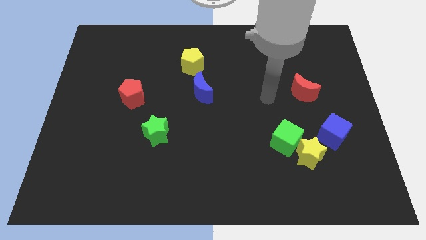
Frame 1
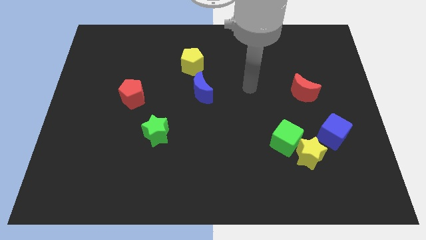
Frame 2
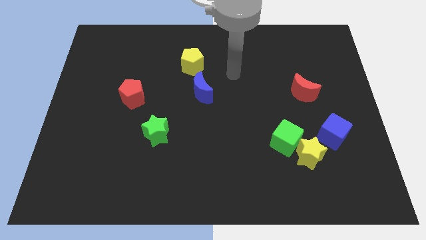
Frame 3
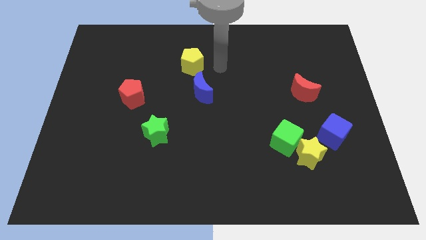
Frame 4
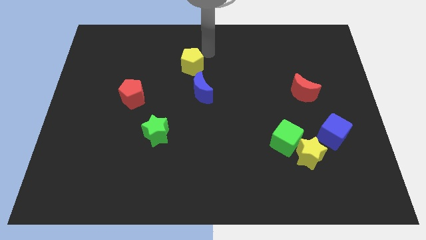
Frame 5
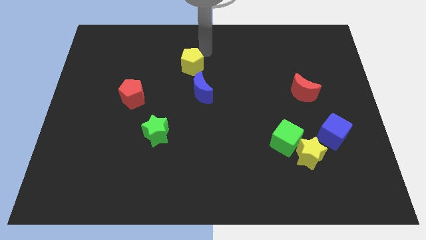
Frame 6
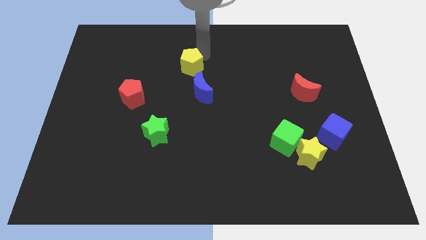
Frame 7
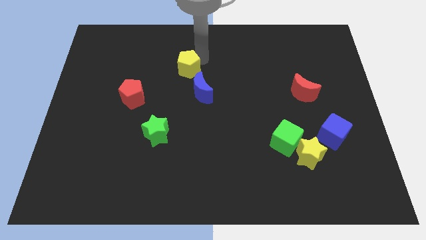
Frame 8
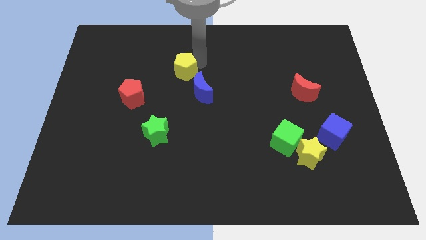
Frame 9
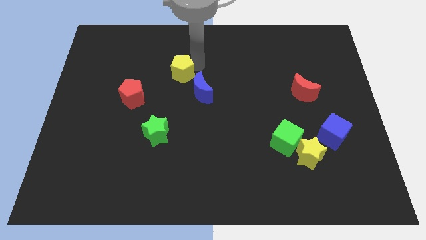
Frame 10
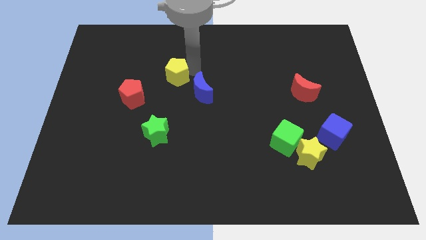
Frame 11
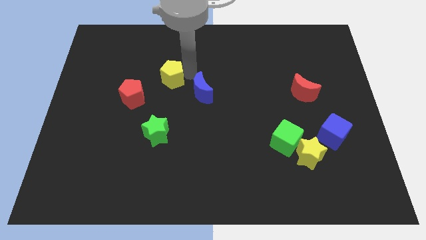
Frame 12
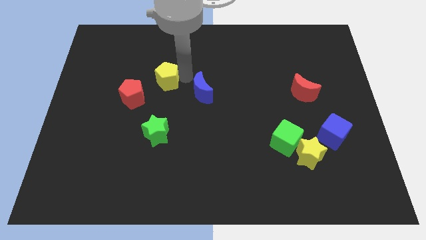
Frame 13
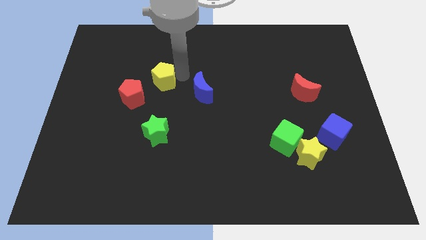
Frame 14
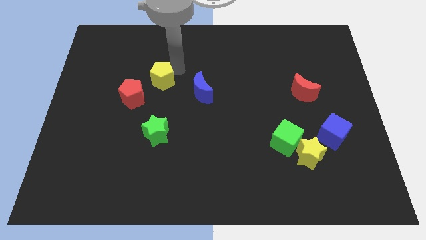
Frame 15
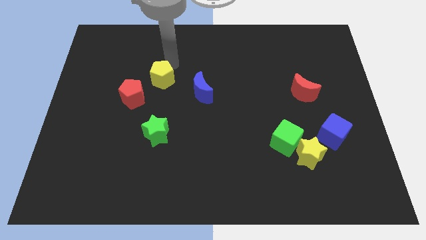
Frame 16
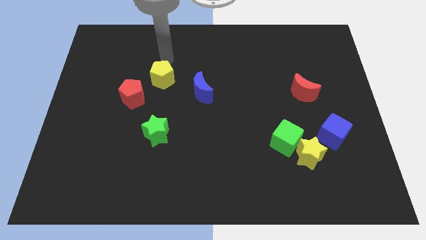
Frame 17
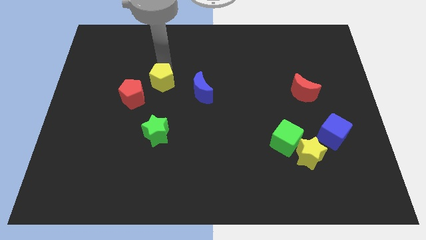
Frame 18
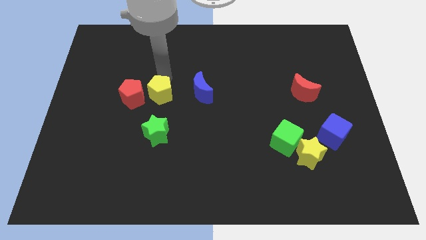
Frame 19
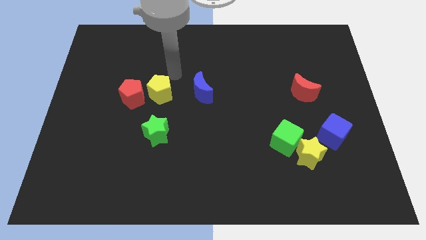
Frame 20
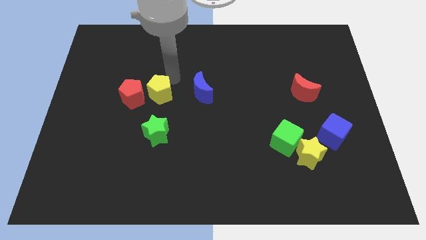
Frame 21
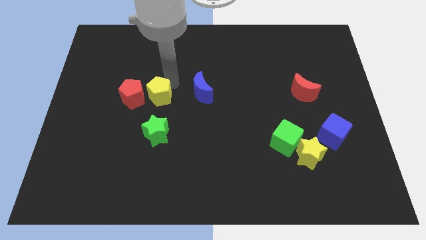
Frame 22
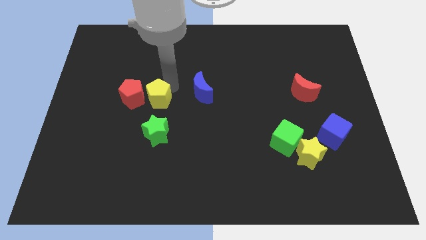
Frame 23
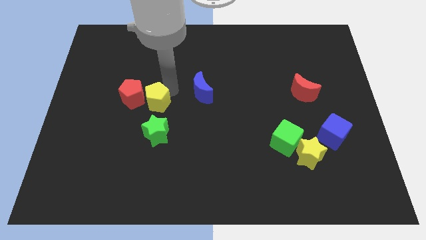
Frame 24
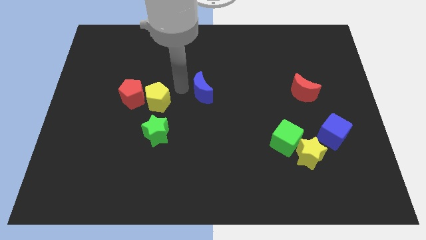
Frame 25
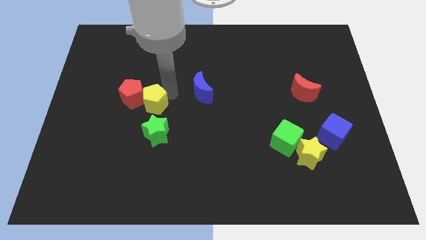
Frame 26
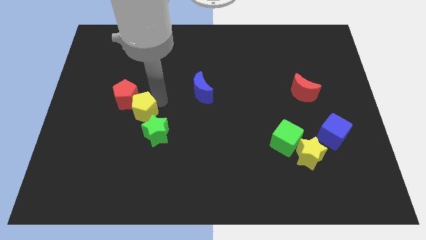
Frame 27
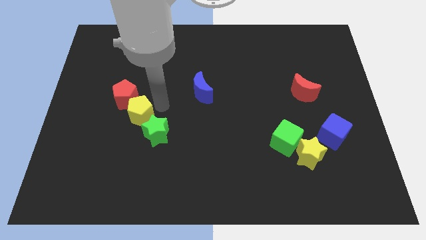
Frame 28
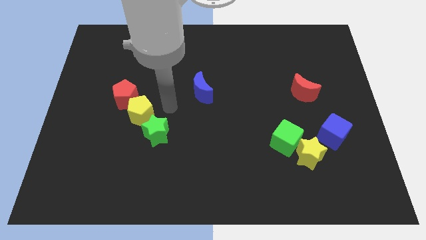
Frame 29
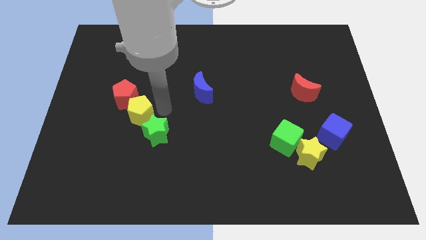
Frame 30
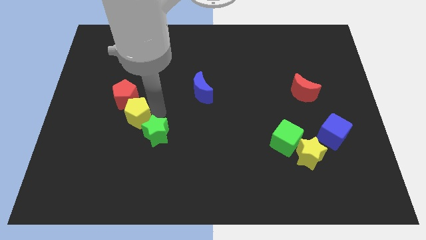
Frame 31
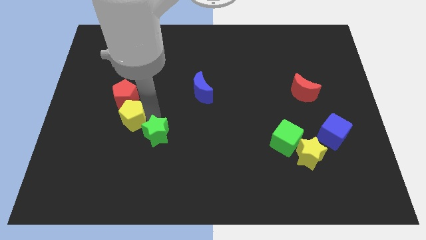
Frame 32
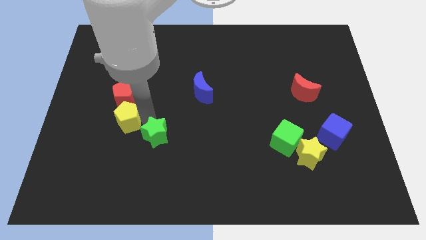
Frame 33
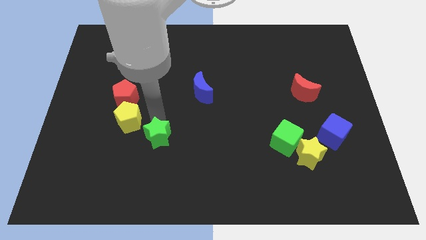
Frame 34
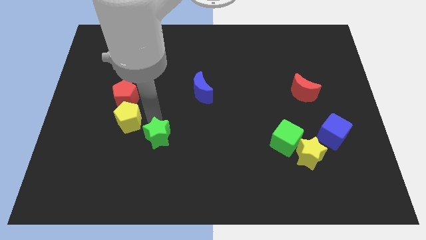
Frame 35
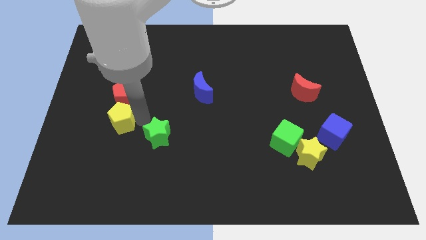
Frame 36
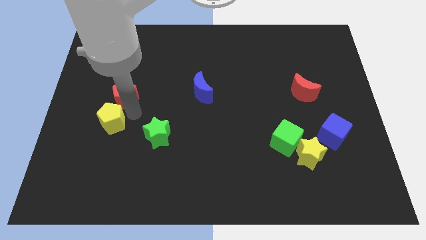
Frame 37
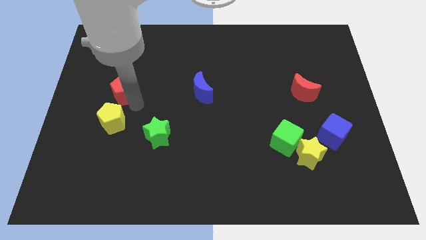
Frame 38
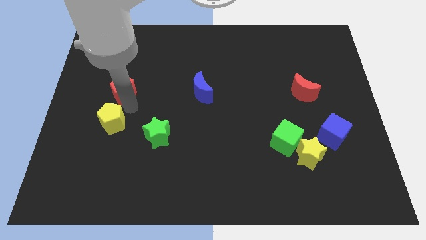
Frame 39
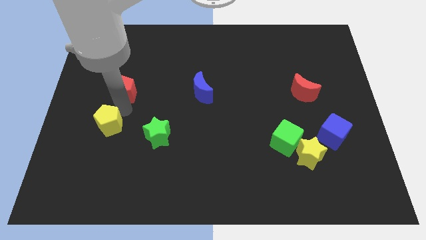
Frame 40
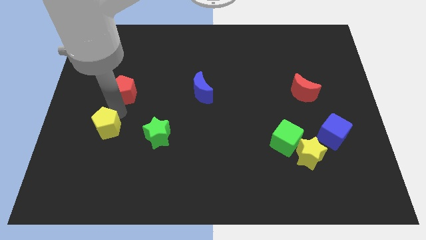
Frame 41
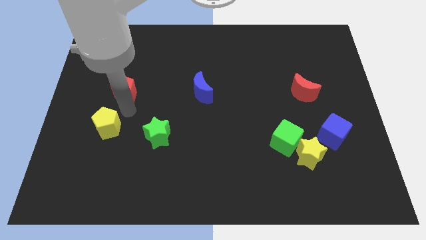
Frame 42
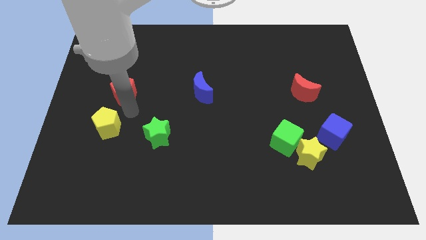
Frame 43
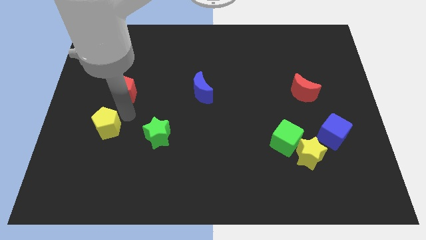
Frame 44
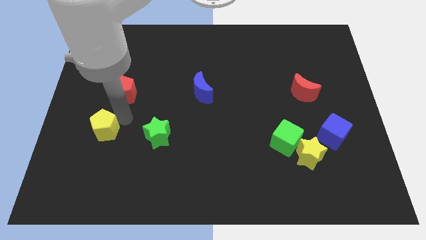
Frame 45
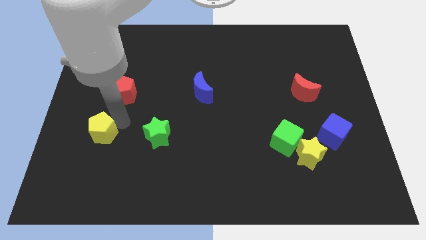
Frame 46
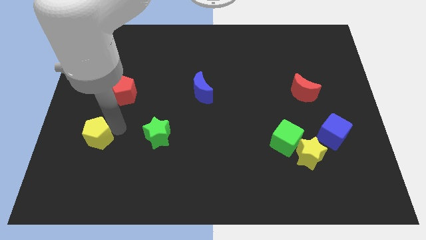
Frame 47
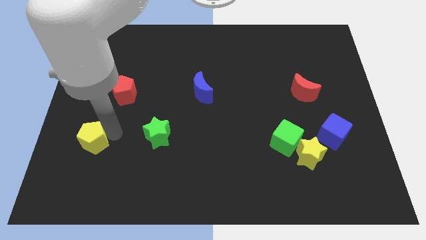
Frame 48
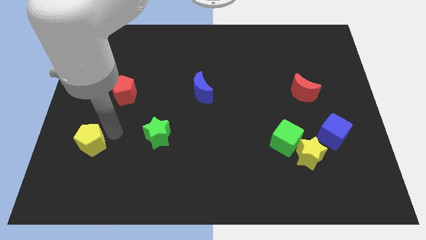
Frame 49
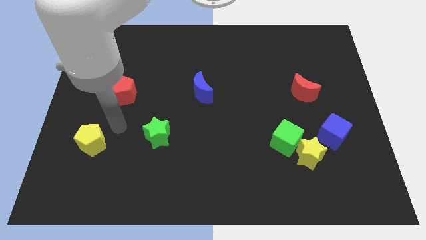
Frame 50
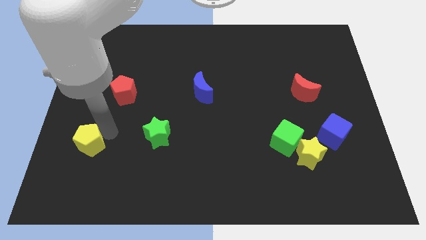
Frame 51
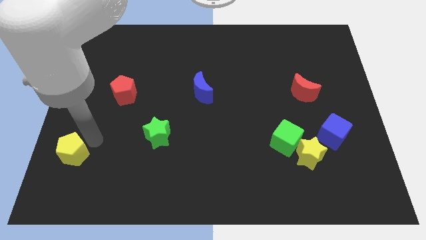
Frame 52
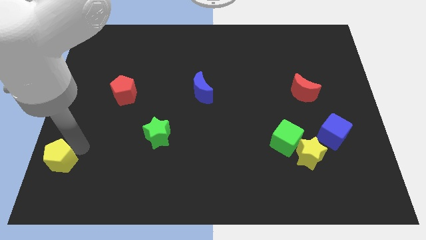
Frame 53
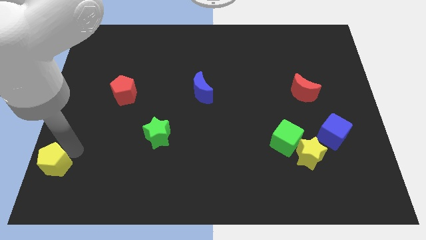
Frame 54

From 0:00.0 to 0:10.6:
move the yellow pentagon to the bottom left of the board

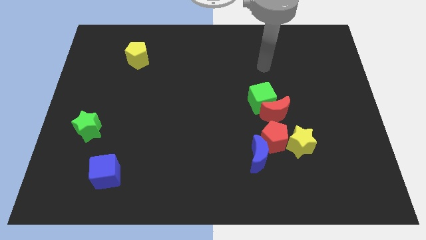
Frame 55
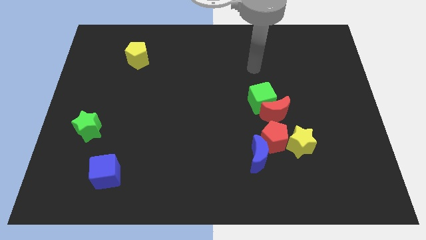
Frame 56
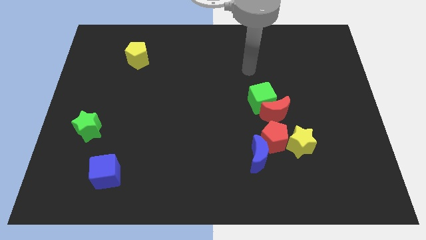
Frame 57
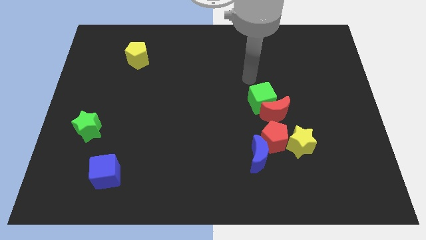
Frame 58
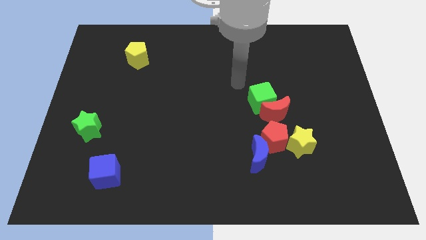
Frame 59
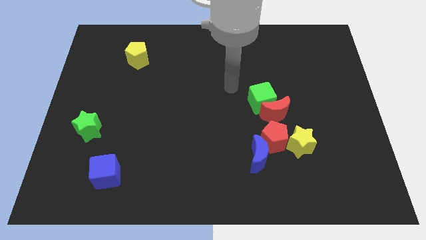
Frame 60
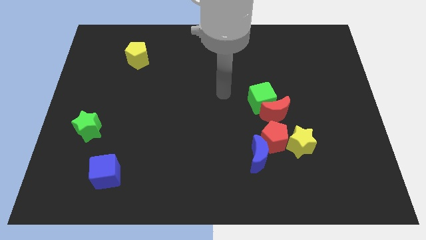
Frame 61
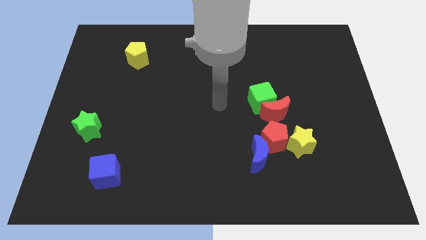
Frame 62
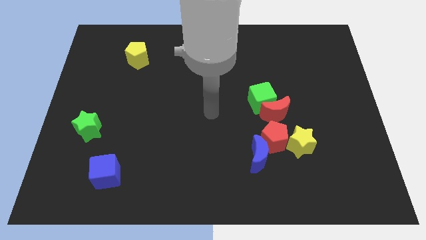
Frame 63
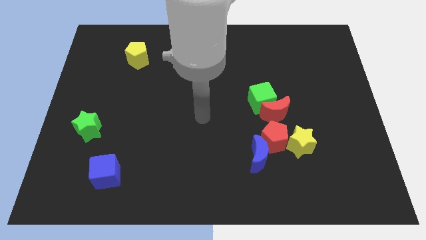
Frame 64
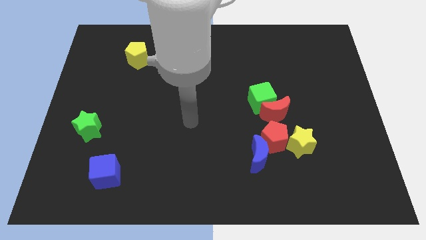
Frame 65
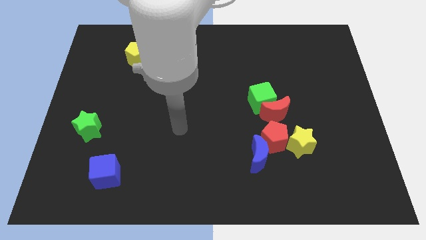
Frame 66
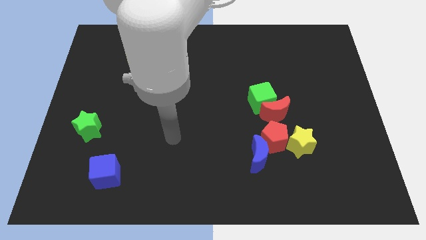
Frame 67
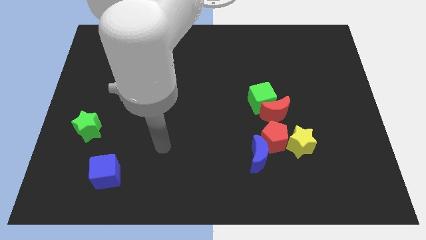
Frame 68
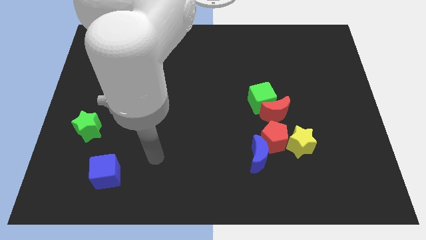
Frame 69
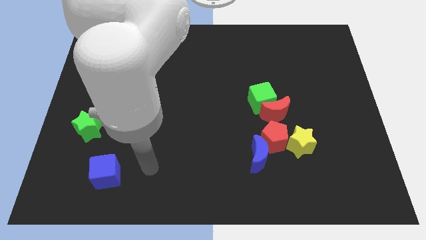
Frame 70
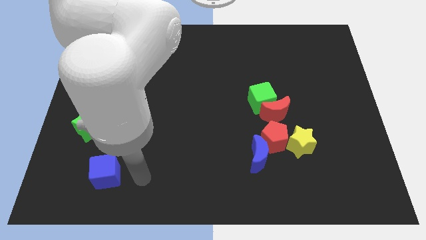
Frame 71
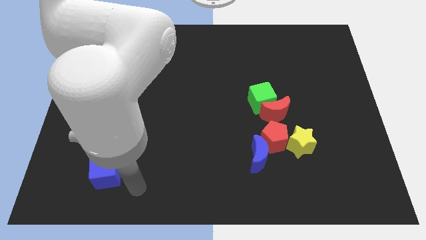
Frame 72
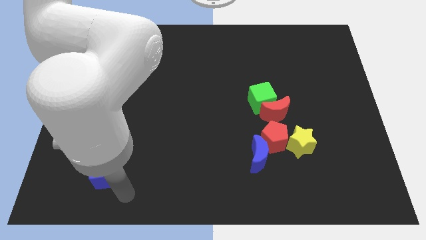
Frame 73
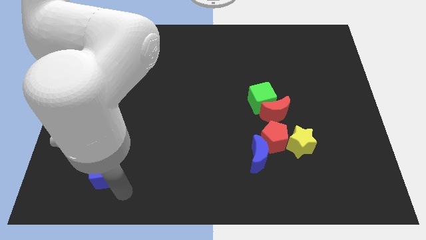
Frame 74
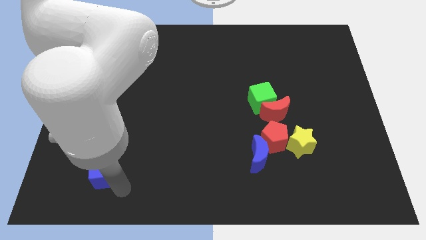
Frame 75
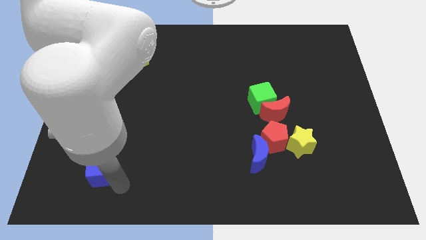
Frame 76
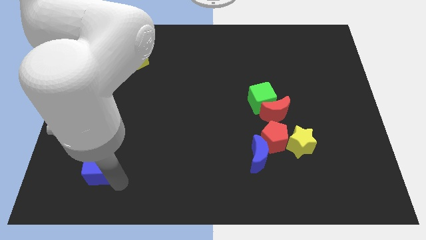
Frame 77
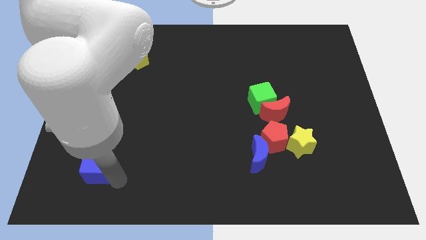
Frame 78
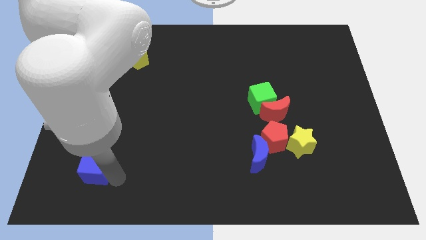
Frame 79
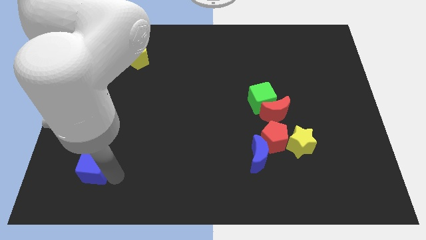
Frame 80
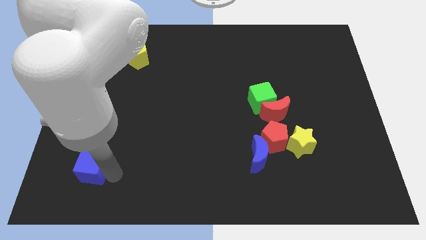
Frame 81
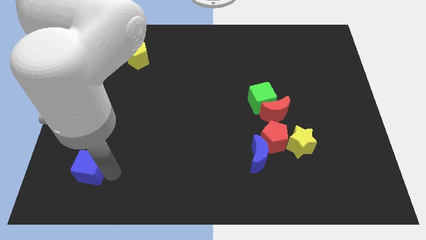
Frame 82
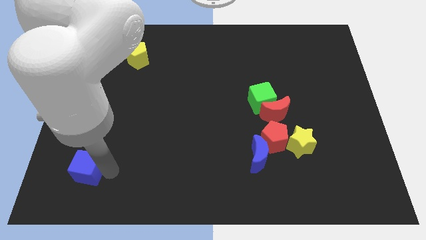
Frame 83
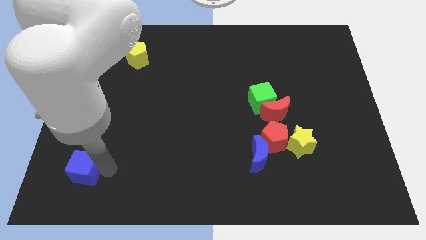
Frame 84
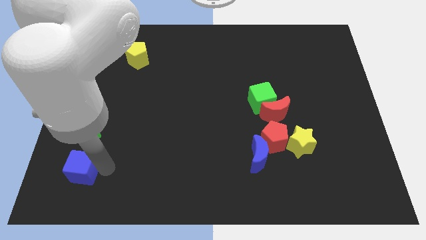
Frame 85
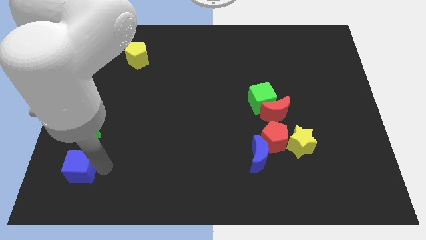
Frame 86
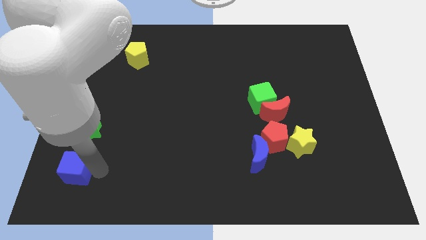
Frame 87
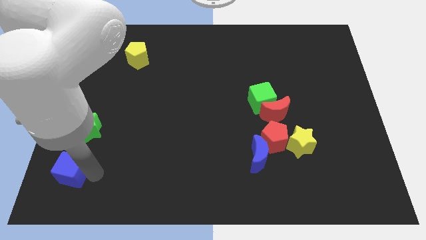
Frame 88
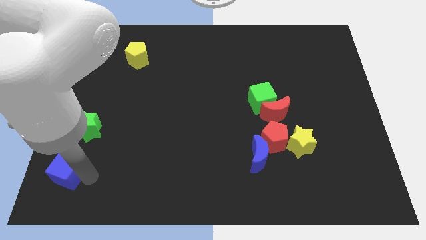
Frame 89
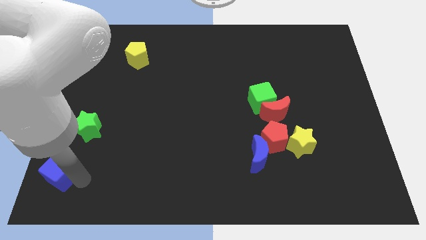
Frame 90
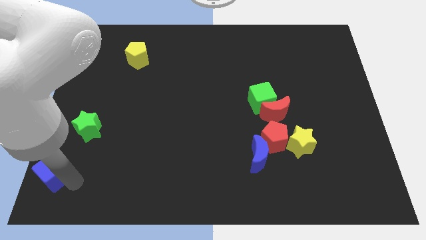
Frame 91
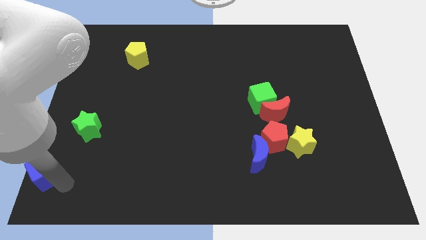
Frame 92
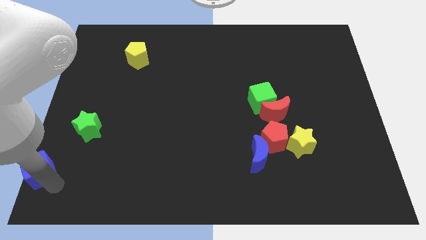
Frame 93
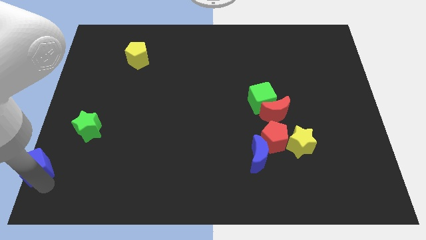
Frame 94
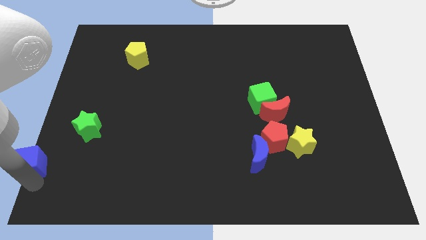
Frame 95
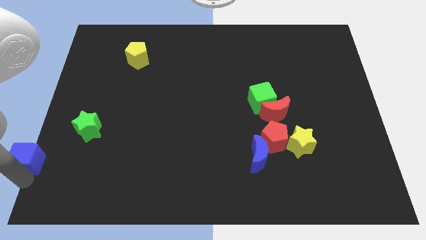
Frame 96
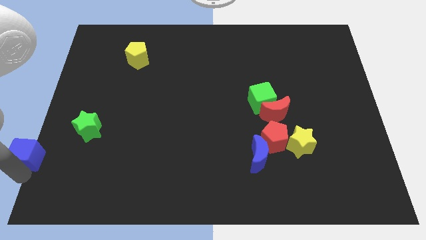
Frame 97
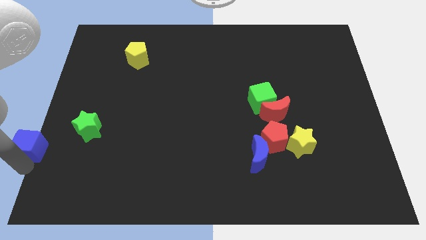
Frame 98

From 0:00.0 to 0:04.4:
slide the blue cube to the center left
